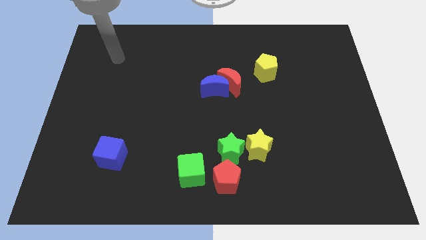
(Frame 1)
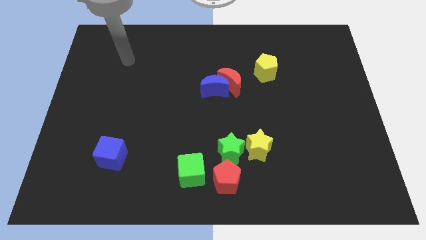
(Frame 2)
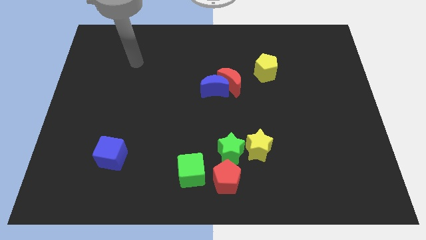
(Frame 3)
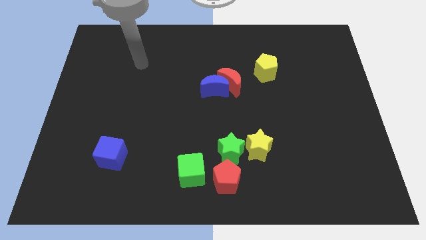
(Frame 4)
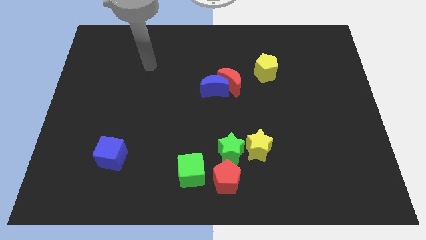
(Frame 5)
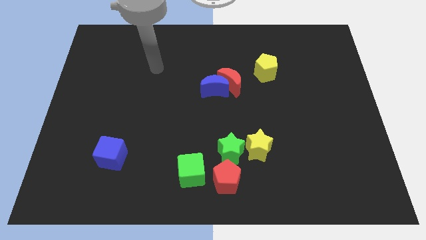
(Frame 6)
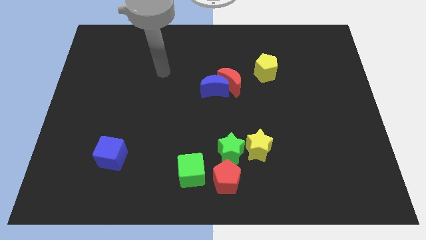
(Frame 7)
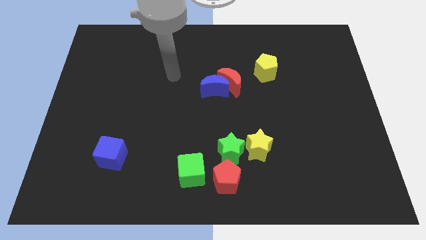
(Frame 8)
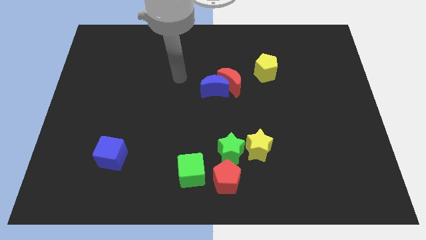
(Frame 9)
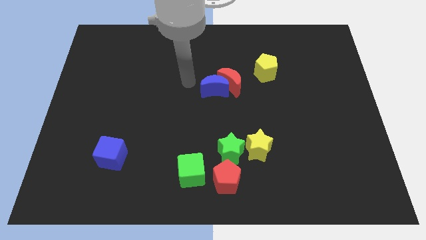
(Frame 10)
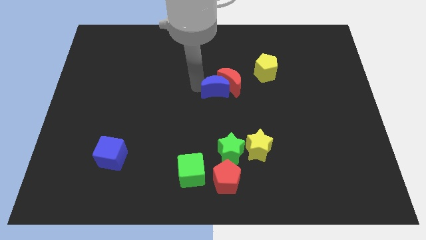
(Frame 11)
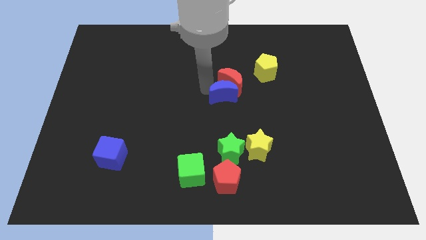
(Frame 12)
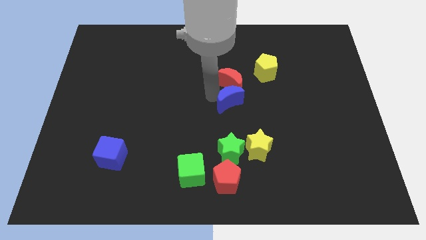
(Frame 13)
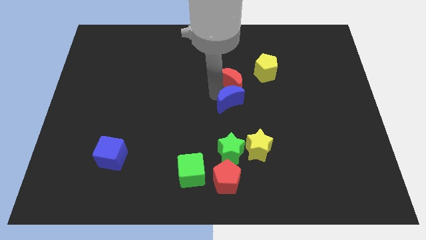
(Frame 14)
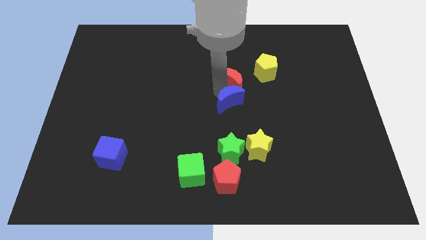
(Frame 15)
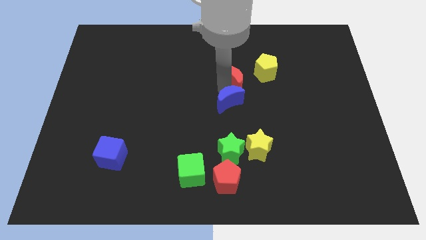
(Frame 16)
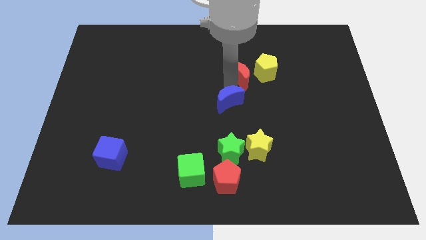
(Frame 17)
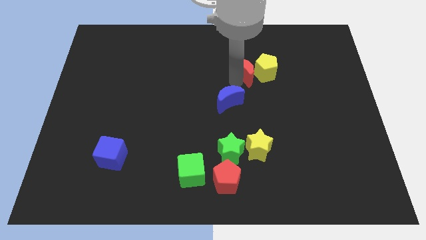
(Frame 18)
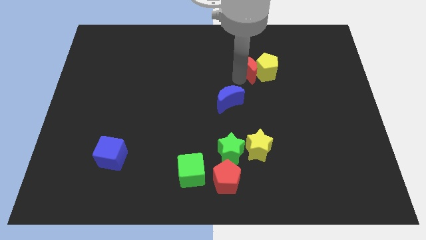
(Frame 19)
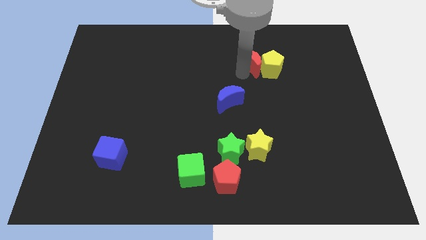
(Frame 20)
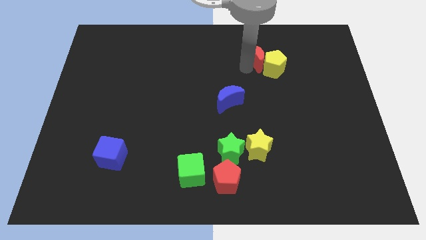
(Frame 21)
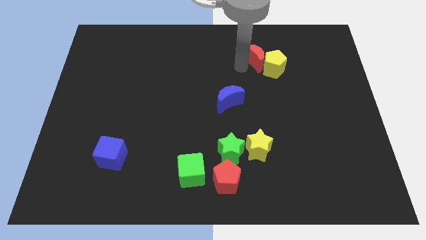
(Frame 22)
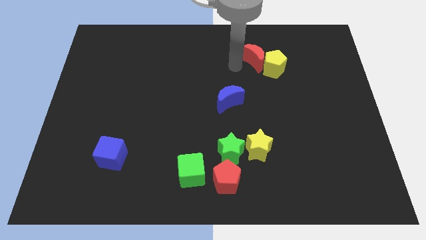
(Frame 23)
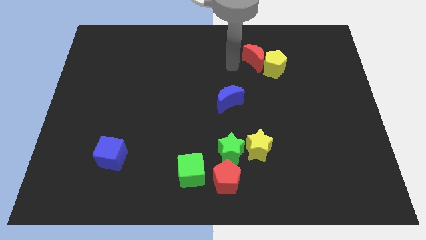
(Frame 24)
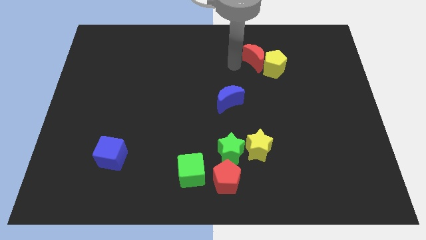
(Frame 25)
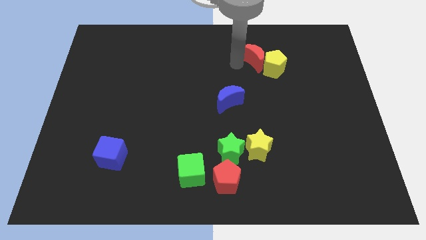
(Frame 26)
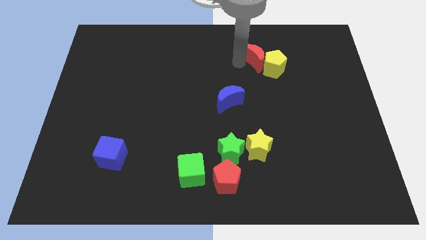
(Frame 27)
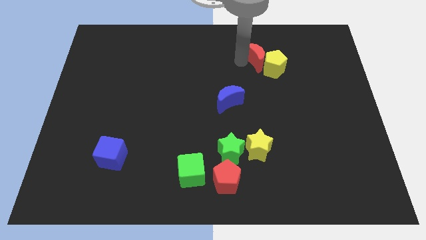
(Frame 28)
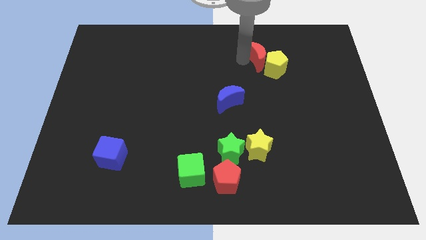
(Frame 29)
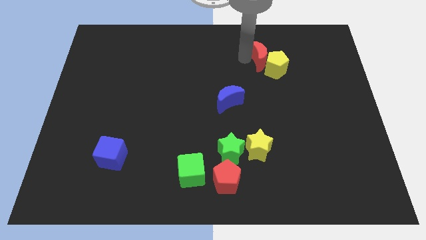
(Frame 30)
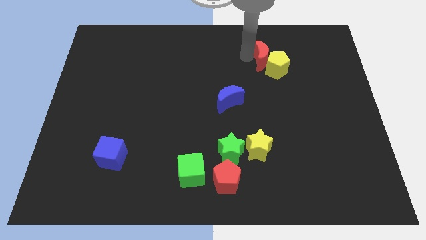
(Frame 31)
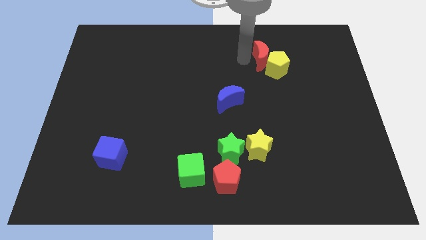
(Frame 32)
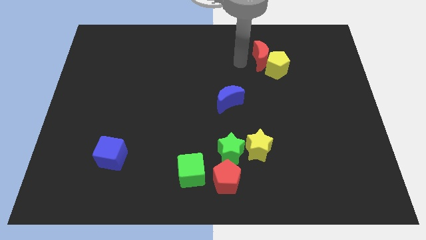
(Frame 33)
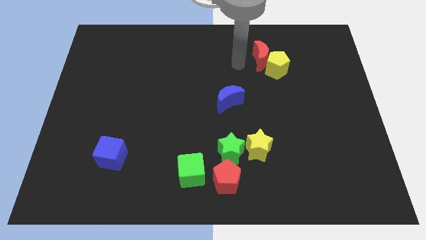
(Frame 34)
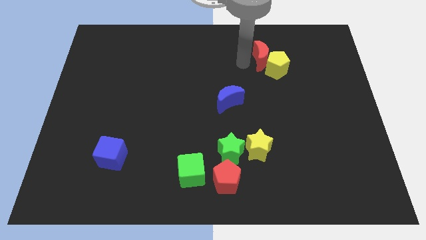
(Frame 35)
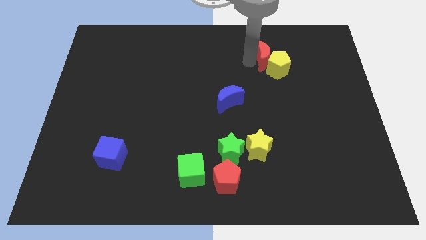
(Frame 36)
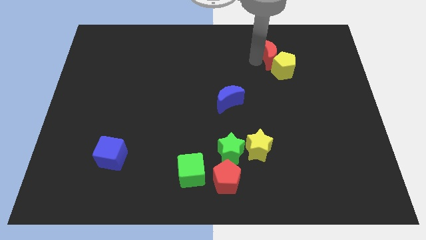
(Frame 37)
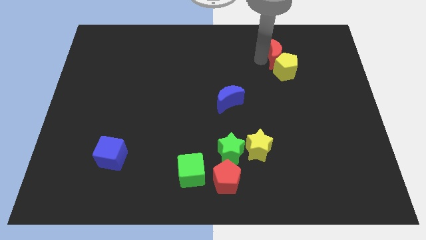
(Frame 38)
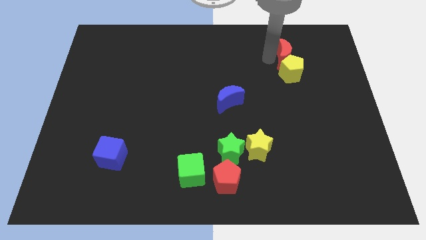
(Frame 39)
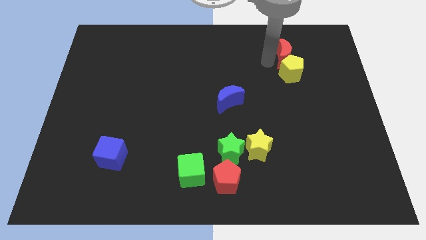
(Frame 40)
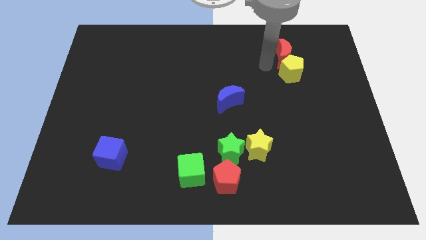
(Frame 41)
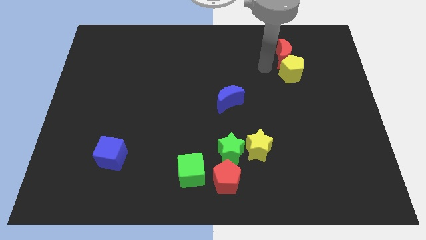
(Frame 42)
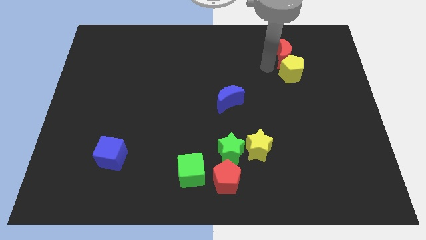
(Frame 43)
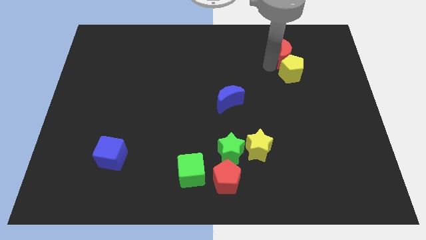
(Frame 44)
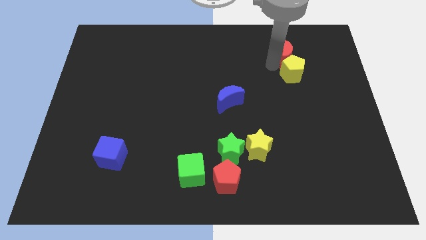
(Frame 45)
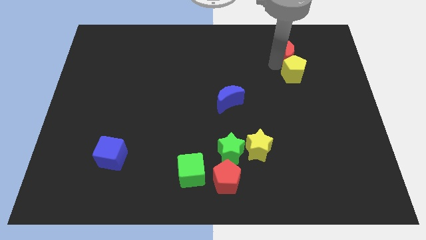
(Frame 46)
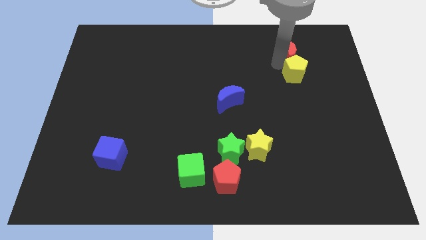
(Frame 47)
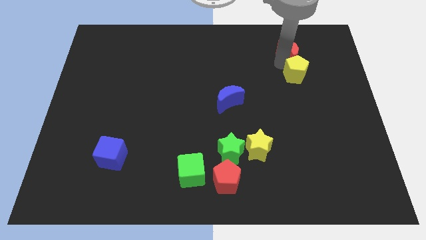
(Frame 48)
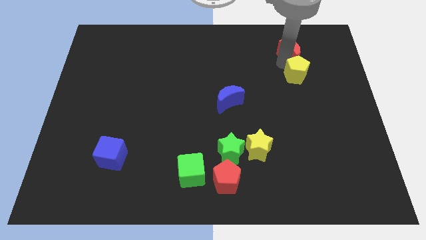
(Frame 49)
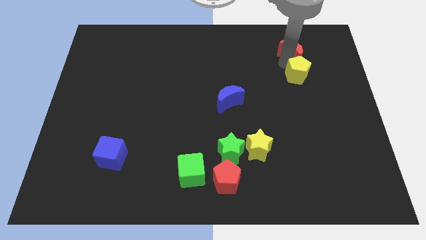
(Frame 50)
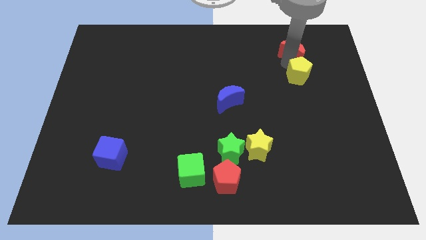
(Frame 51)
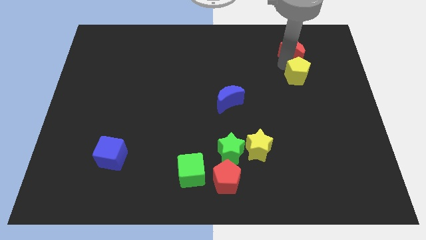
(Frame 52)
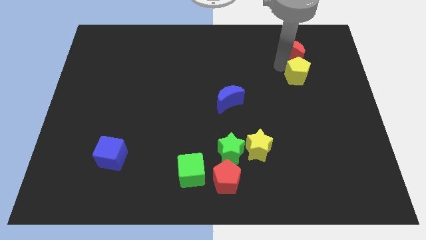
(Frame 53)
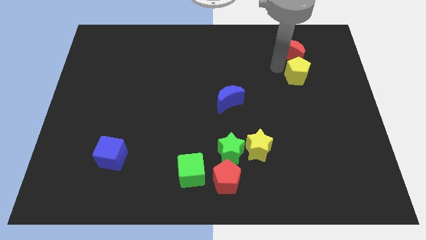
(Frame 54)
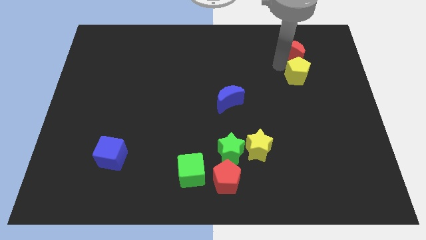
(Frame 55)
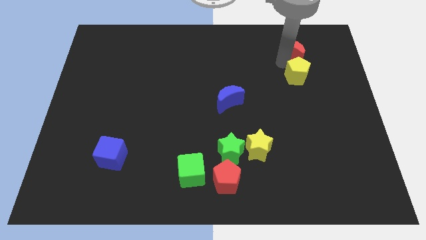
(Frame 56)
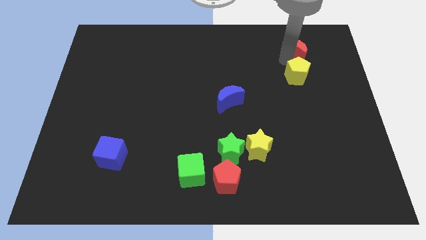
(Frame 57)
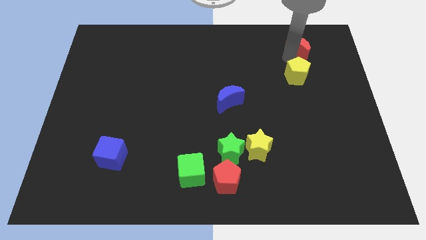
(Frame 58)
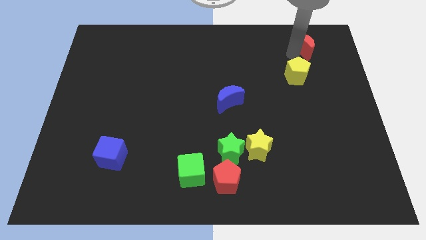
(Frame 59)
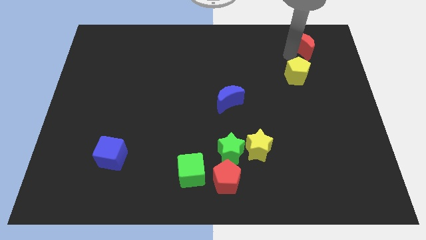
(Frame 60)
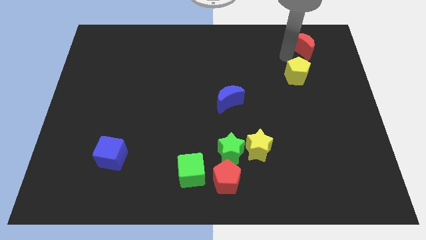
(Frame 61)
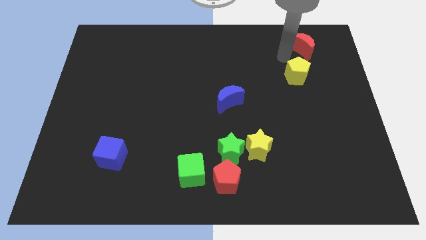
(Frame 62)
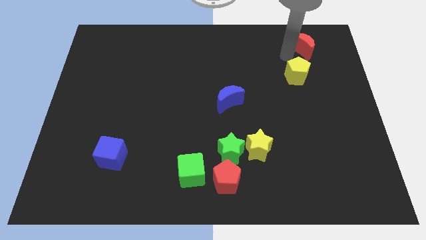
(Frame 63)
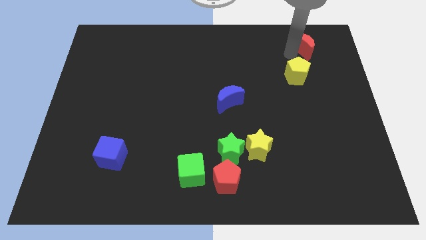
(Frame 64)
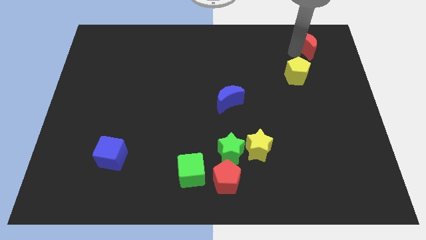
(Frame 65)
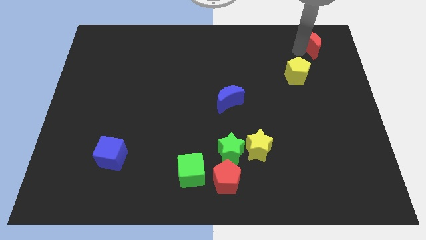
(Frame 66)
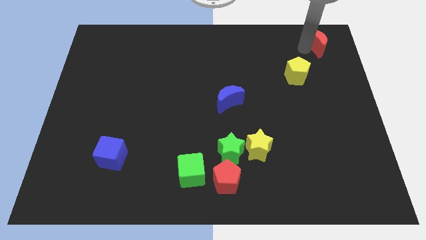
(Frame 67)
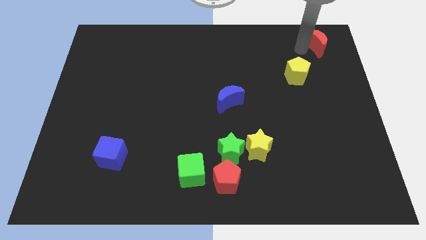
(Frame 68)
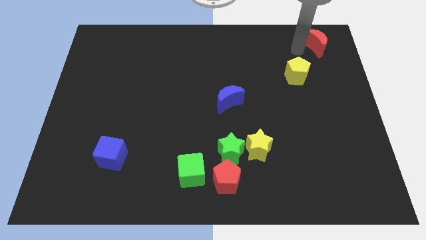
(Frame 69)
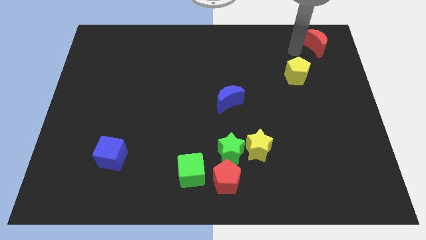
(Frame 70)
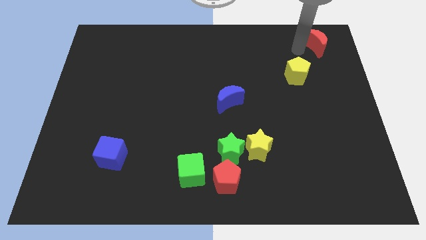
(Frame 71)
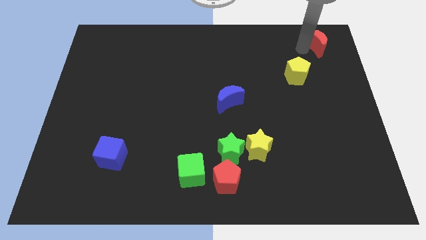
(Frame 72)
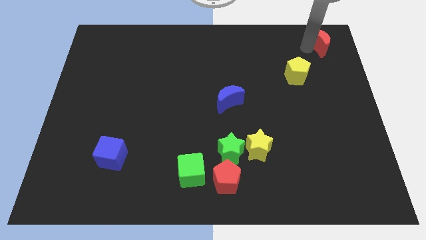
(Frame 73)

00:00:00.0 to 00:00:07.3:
put the red moon to the upper right corner
